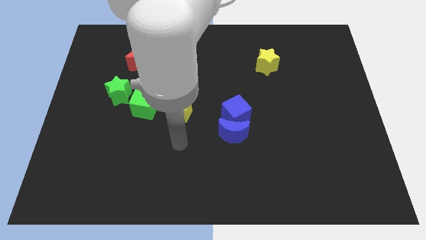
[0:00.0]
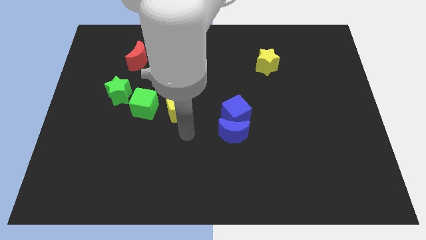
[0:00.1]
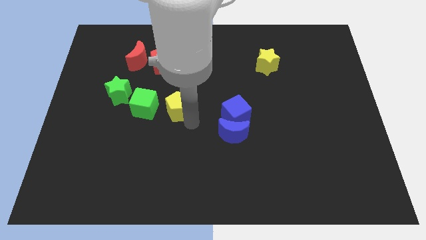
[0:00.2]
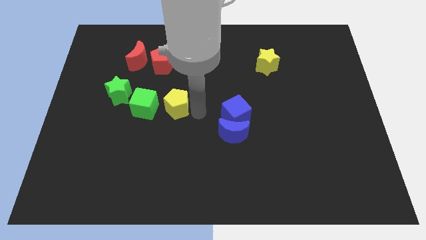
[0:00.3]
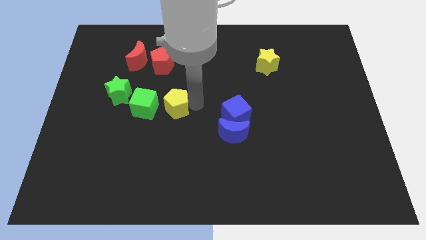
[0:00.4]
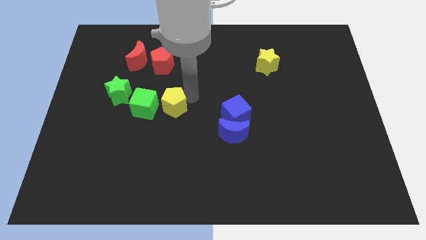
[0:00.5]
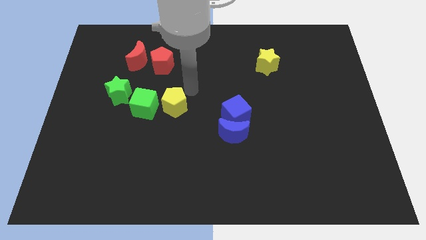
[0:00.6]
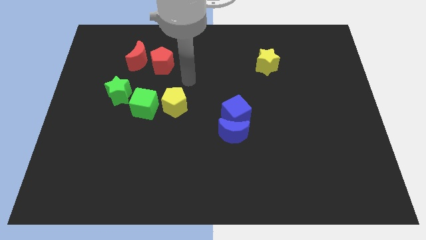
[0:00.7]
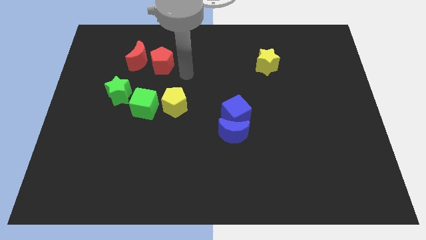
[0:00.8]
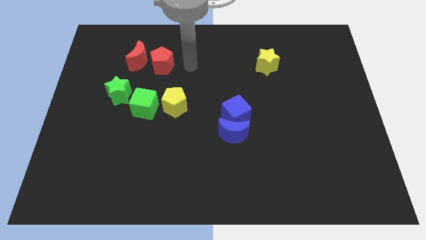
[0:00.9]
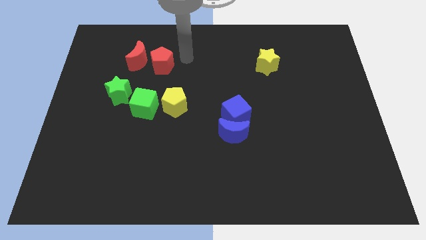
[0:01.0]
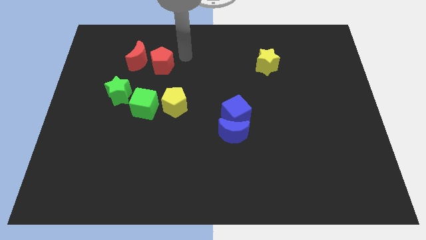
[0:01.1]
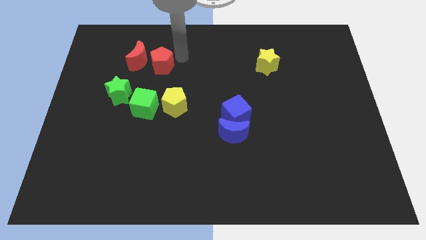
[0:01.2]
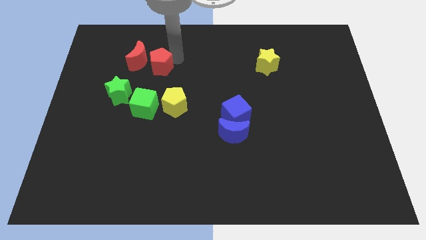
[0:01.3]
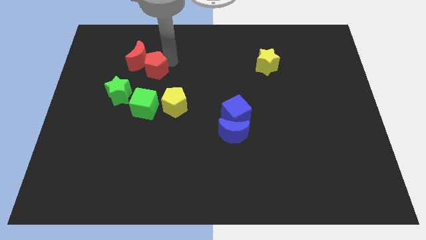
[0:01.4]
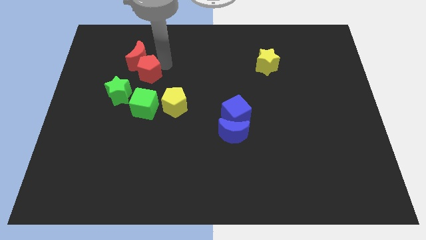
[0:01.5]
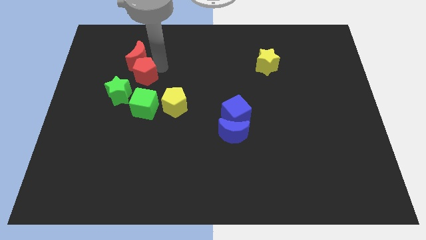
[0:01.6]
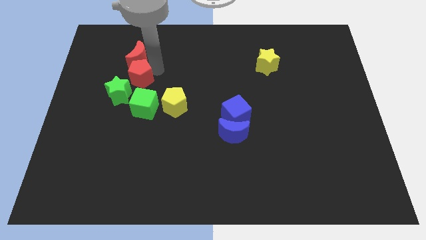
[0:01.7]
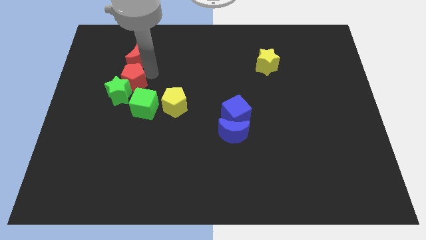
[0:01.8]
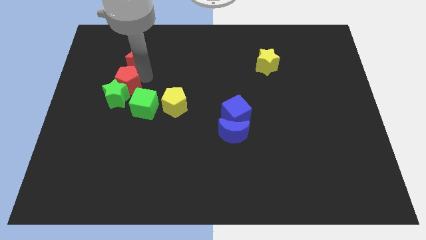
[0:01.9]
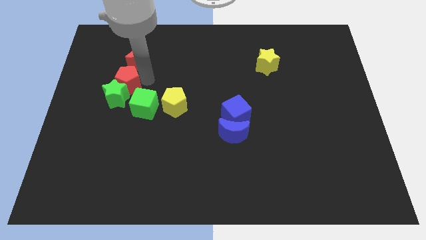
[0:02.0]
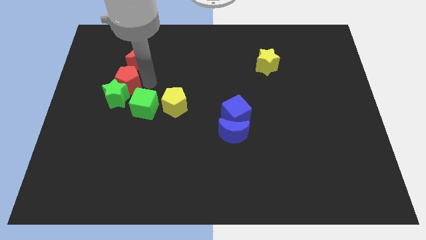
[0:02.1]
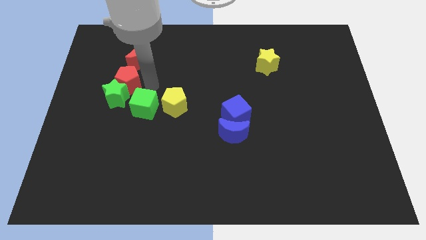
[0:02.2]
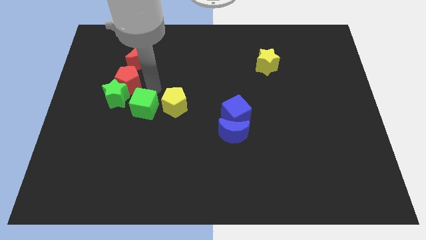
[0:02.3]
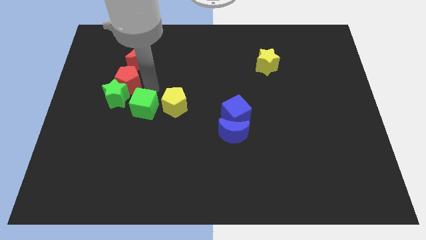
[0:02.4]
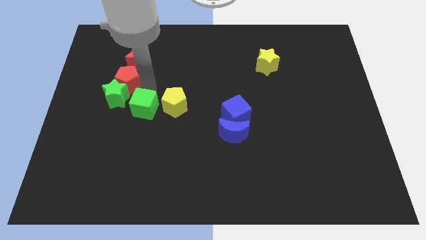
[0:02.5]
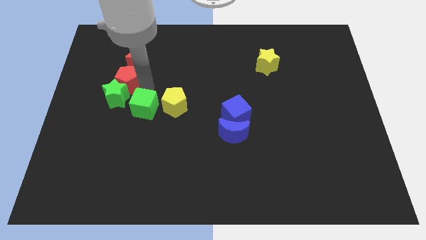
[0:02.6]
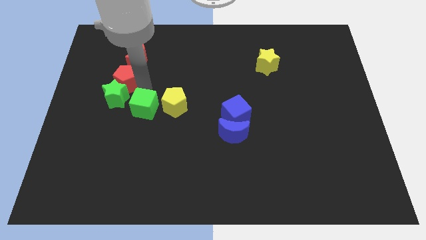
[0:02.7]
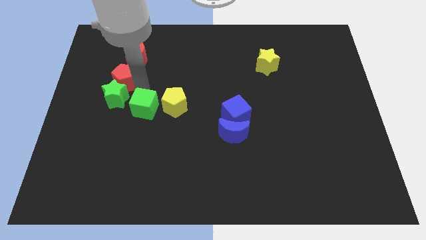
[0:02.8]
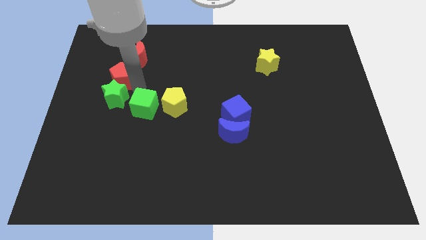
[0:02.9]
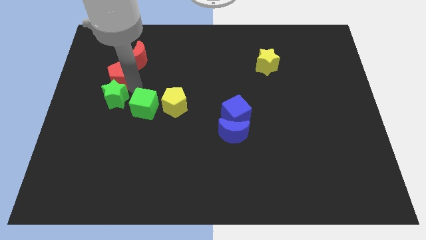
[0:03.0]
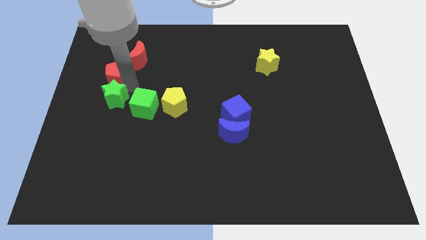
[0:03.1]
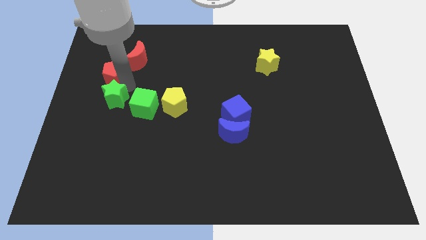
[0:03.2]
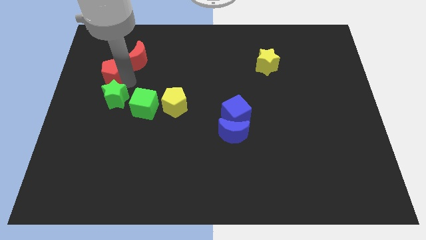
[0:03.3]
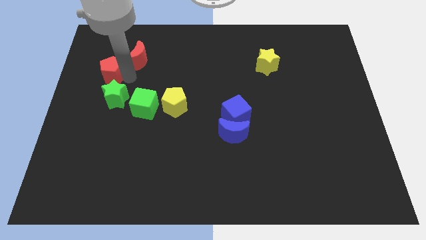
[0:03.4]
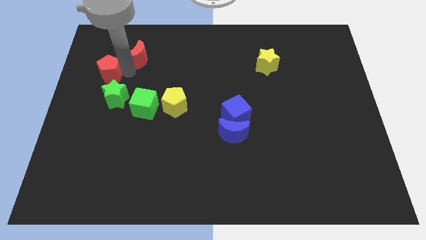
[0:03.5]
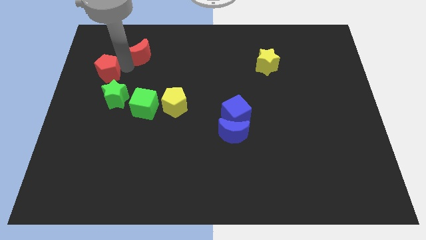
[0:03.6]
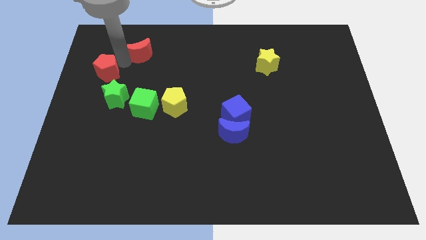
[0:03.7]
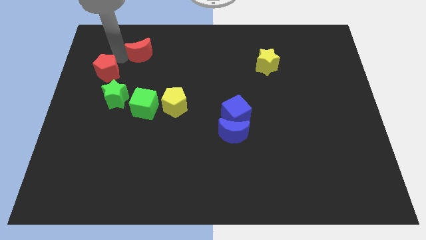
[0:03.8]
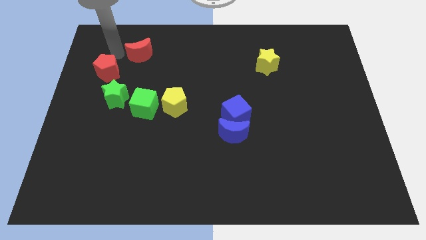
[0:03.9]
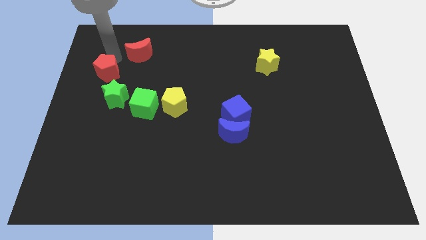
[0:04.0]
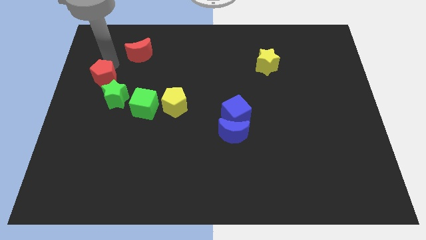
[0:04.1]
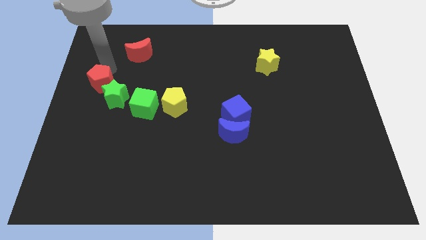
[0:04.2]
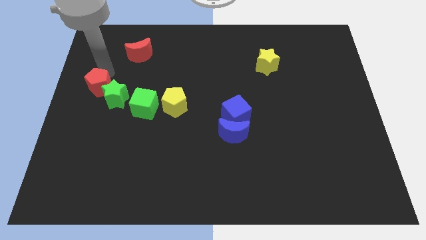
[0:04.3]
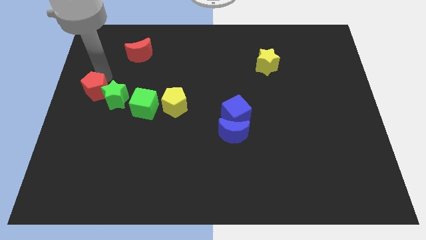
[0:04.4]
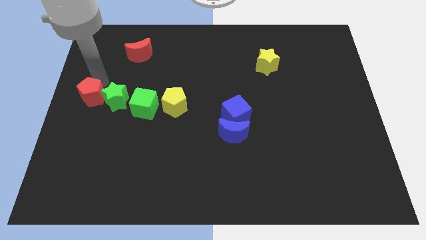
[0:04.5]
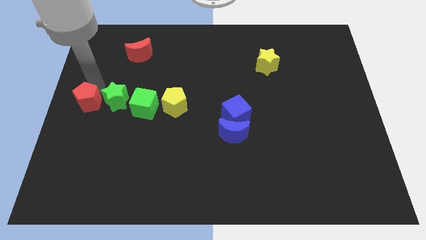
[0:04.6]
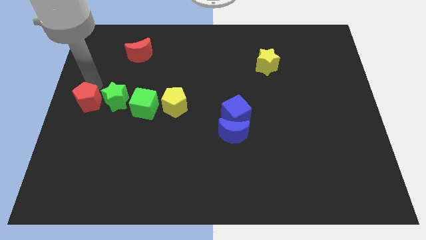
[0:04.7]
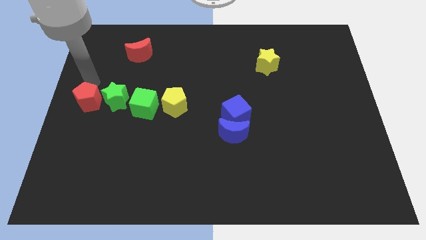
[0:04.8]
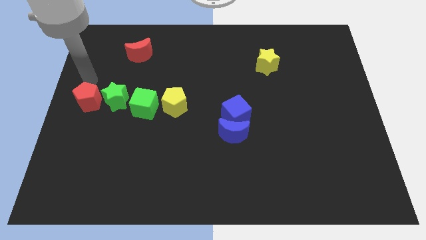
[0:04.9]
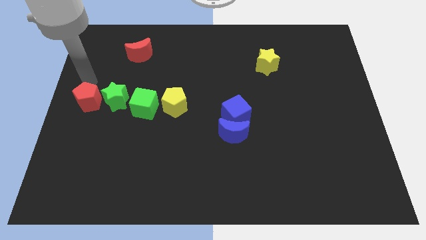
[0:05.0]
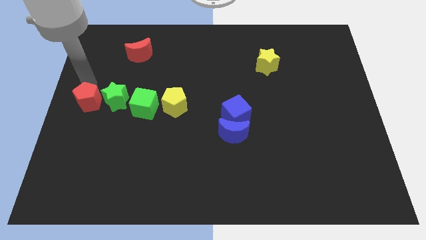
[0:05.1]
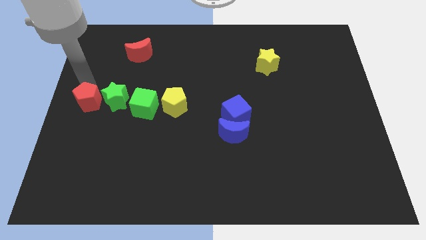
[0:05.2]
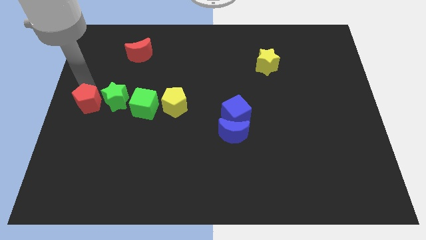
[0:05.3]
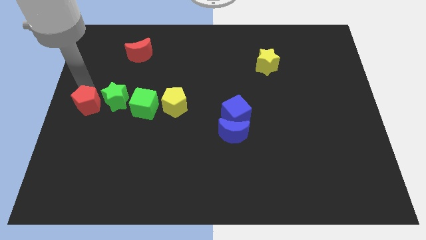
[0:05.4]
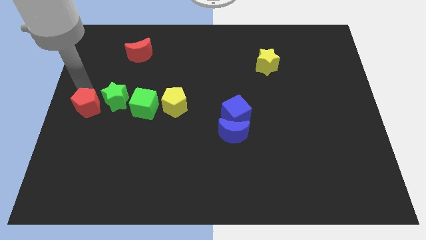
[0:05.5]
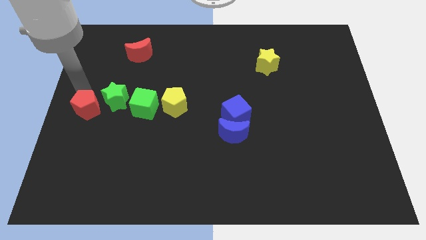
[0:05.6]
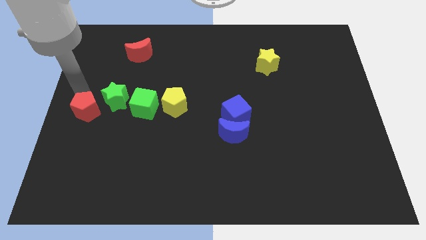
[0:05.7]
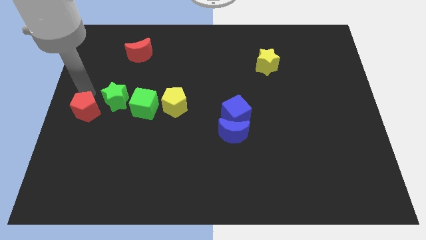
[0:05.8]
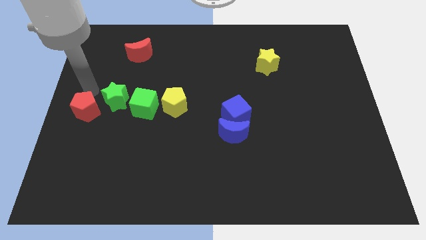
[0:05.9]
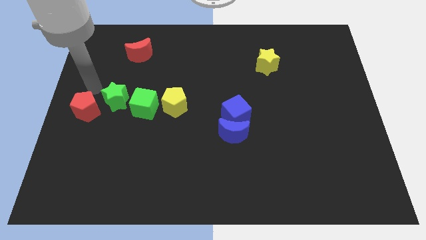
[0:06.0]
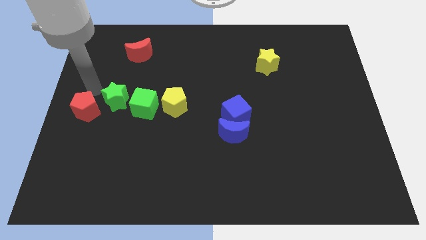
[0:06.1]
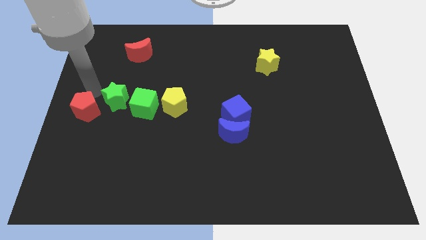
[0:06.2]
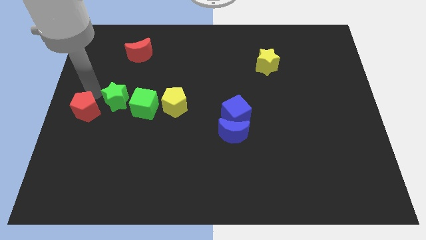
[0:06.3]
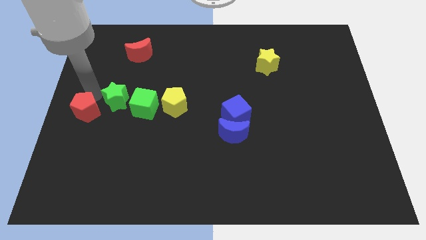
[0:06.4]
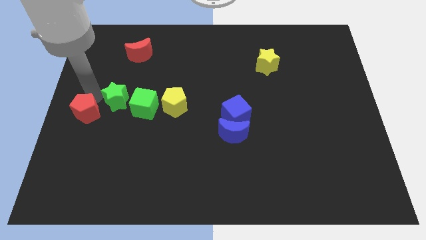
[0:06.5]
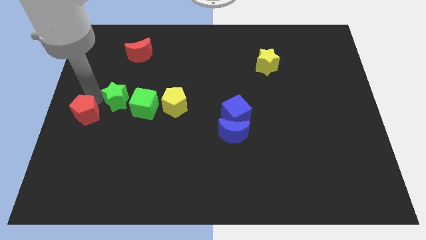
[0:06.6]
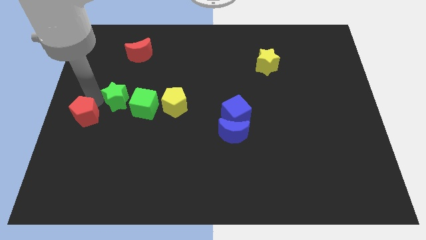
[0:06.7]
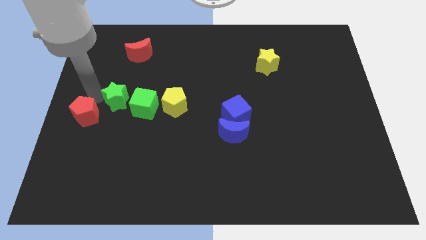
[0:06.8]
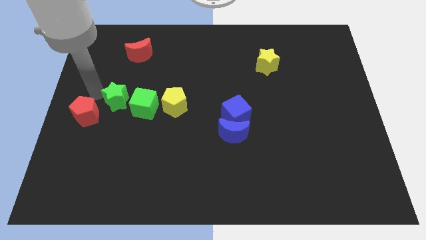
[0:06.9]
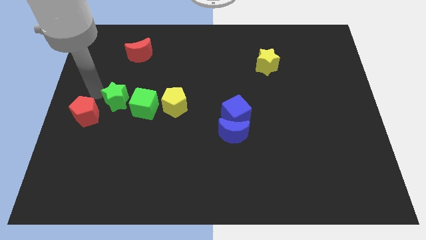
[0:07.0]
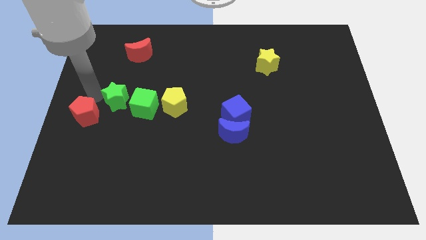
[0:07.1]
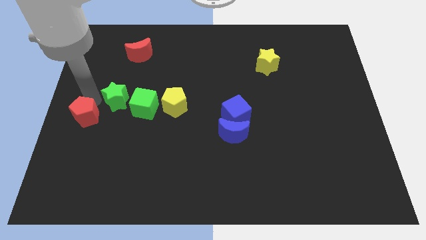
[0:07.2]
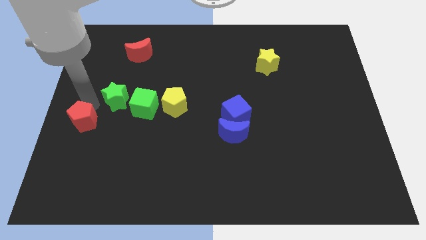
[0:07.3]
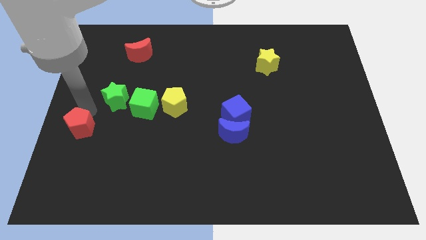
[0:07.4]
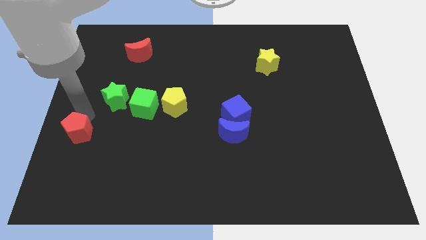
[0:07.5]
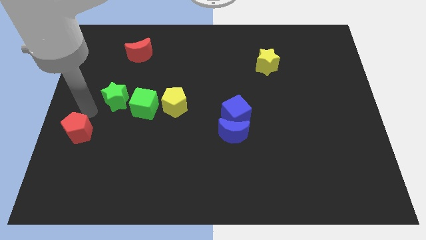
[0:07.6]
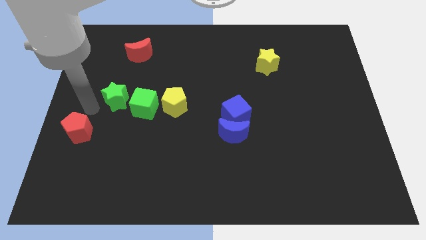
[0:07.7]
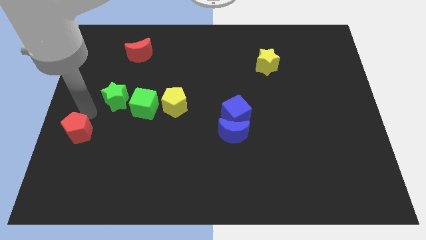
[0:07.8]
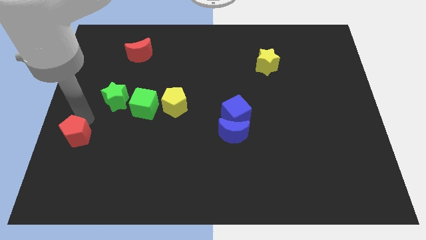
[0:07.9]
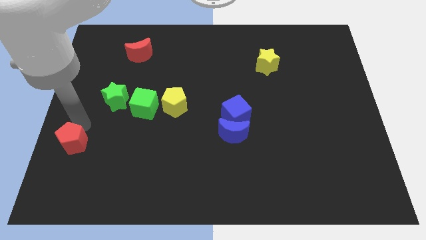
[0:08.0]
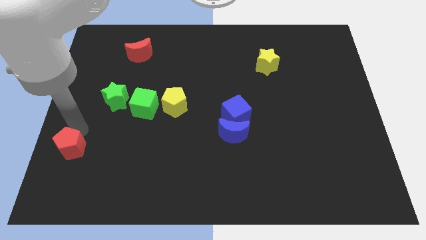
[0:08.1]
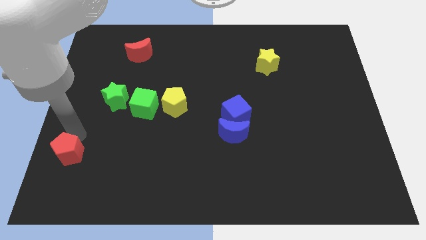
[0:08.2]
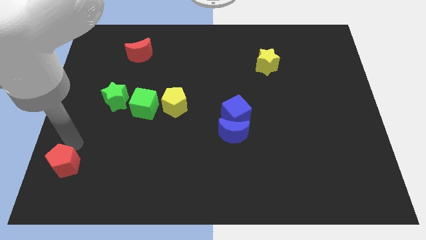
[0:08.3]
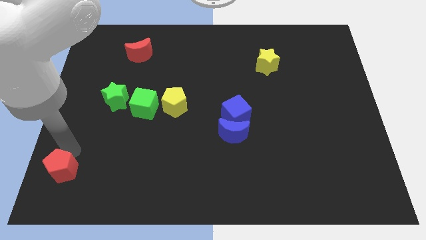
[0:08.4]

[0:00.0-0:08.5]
put the red pentagon to the bottom left of the board

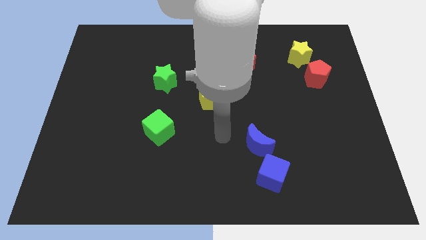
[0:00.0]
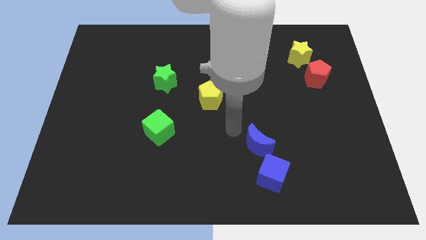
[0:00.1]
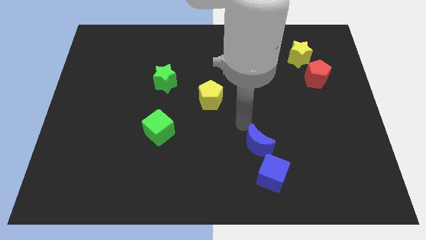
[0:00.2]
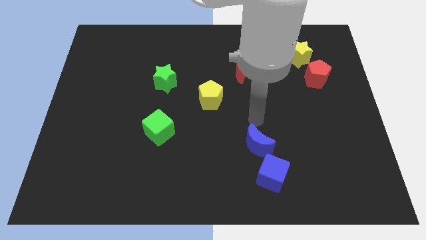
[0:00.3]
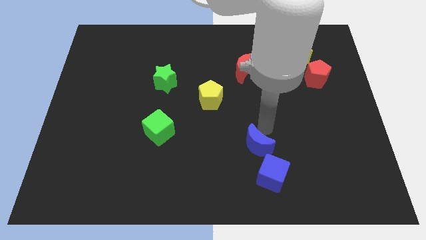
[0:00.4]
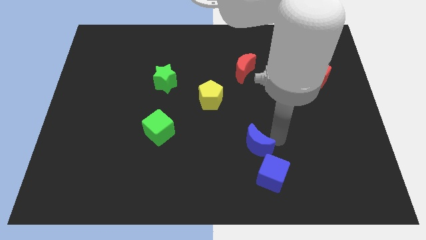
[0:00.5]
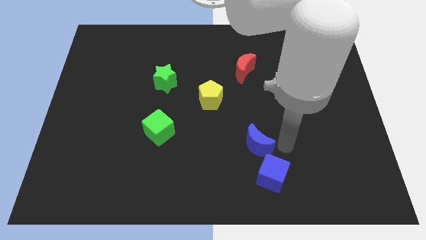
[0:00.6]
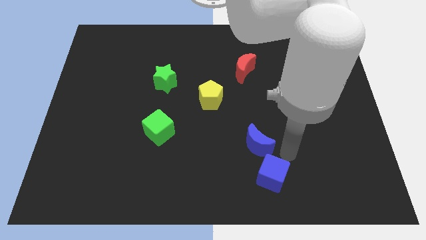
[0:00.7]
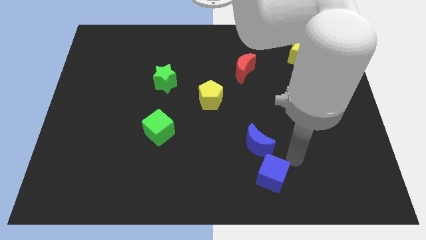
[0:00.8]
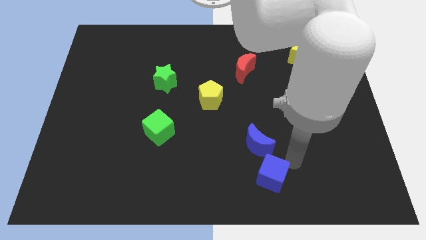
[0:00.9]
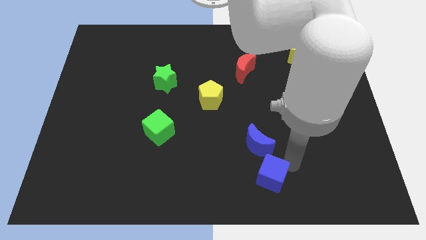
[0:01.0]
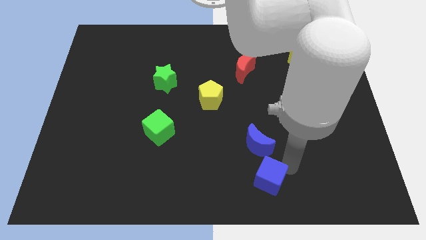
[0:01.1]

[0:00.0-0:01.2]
put the blue cube to the bottom
